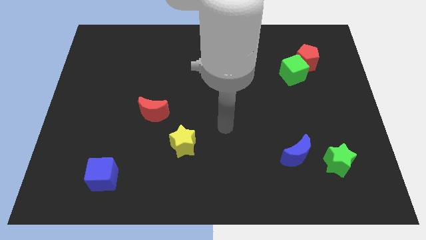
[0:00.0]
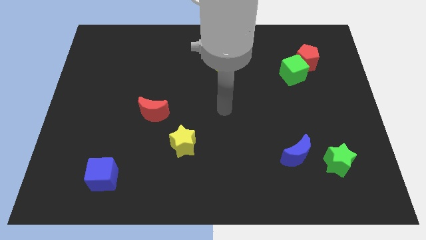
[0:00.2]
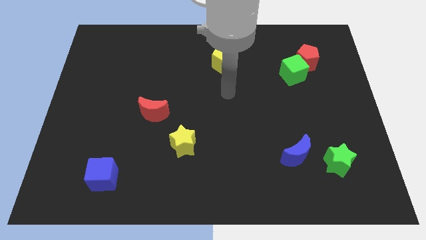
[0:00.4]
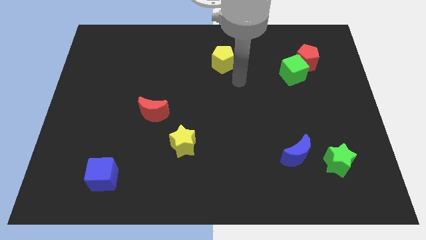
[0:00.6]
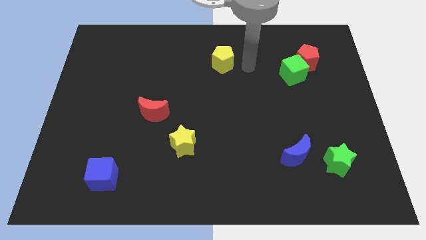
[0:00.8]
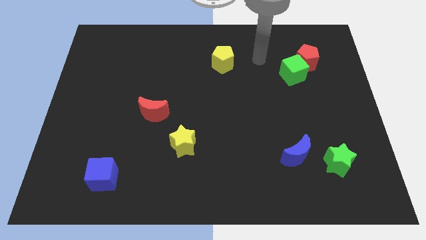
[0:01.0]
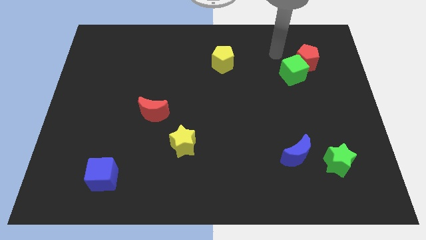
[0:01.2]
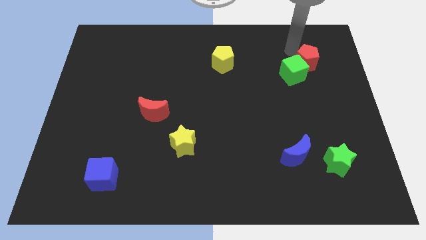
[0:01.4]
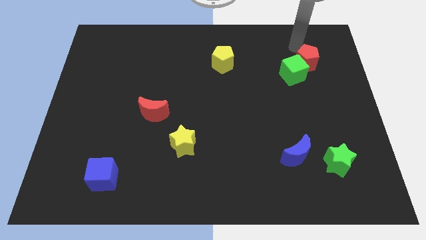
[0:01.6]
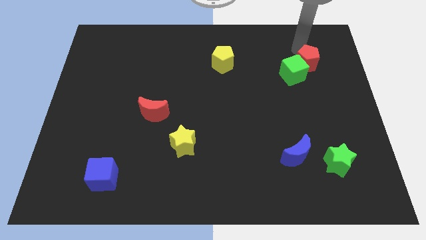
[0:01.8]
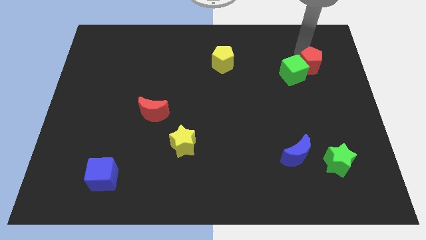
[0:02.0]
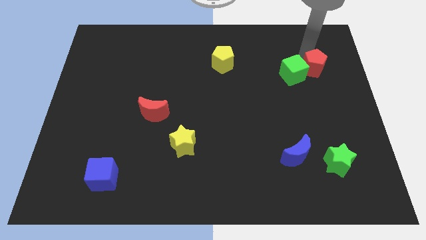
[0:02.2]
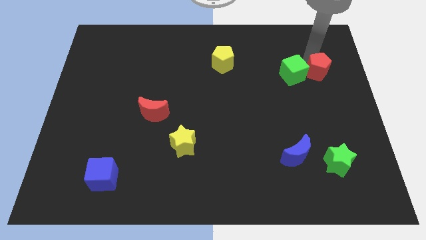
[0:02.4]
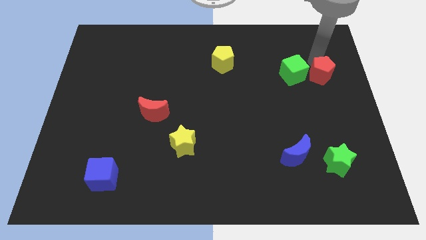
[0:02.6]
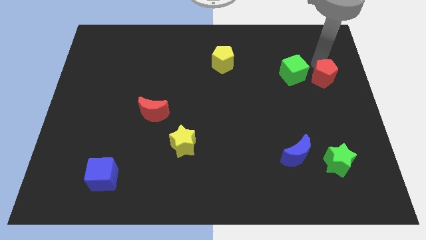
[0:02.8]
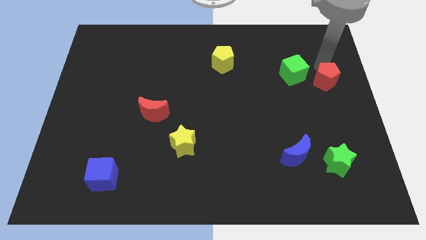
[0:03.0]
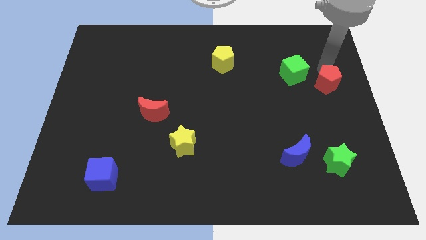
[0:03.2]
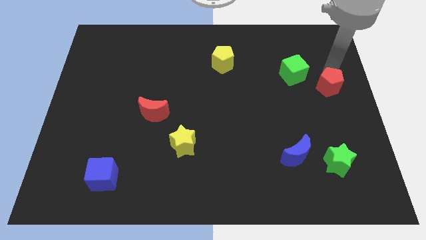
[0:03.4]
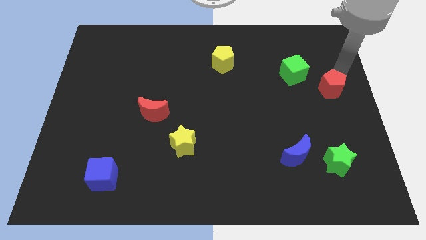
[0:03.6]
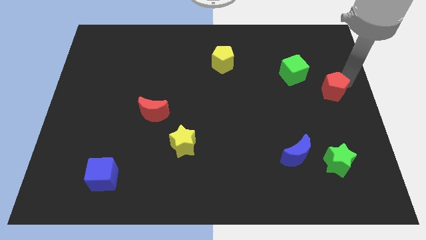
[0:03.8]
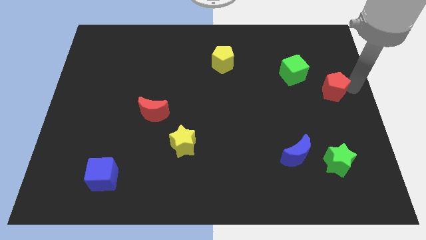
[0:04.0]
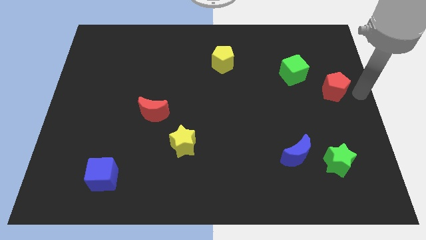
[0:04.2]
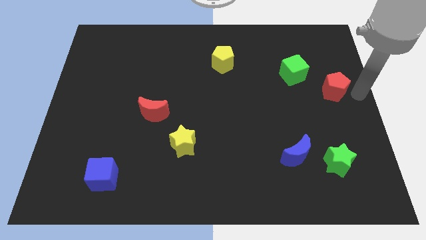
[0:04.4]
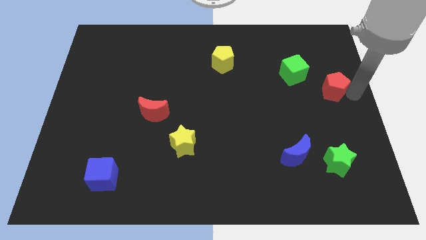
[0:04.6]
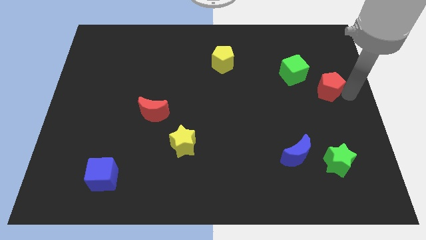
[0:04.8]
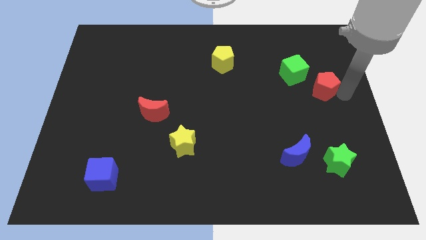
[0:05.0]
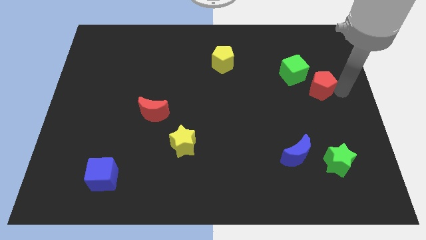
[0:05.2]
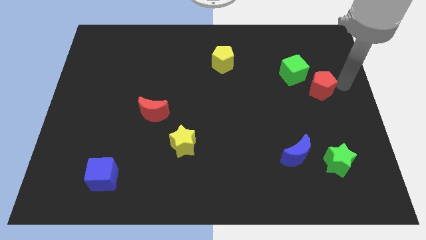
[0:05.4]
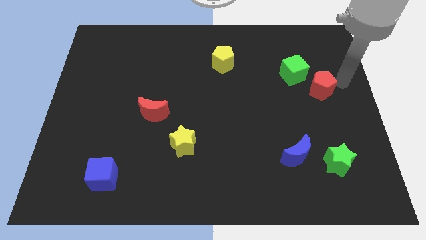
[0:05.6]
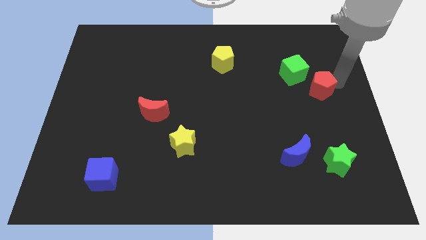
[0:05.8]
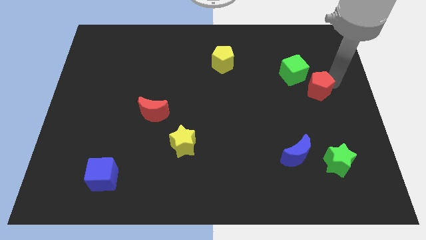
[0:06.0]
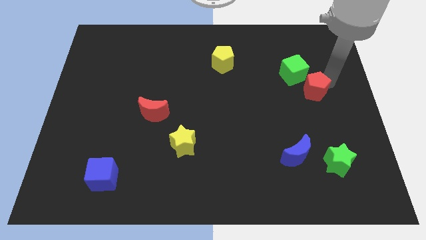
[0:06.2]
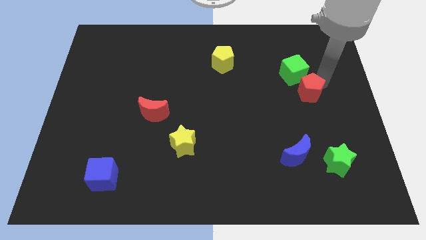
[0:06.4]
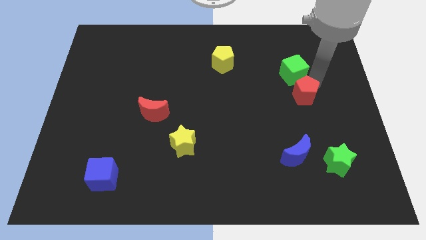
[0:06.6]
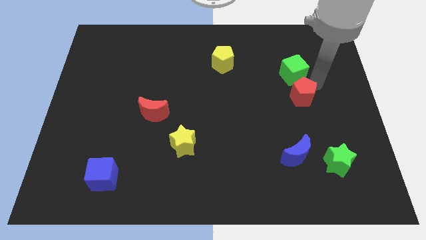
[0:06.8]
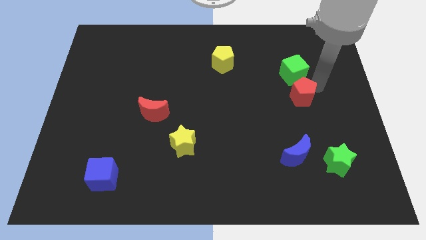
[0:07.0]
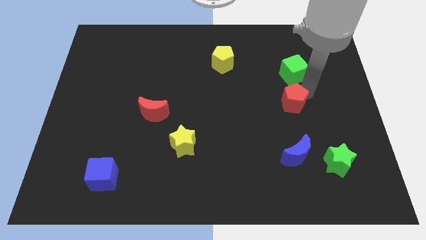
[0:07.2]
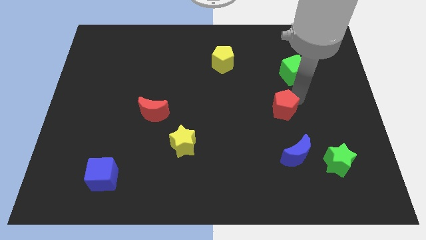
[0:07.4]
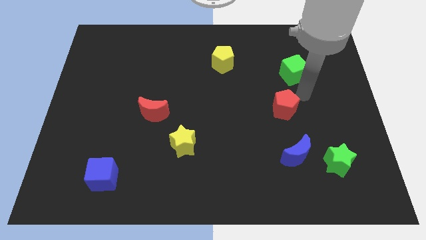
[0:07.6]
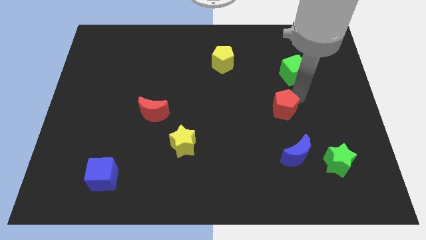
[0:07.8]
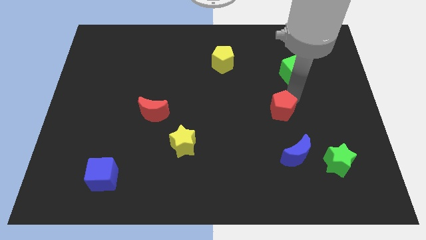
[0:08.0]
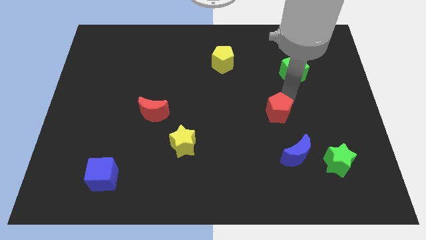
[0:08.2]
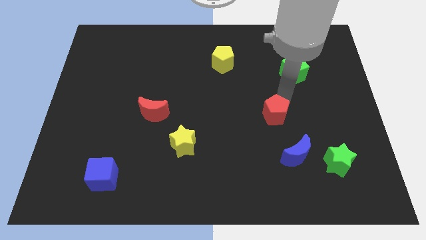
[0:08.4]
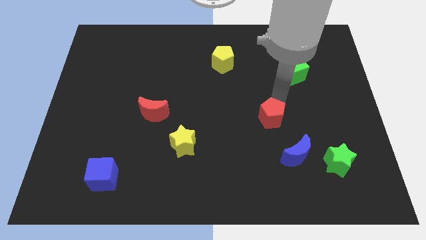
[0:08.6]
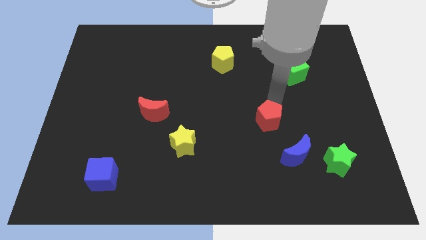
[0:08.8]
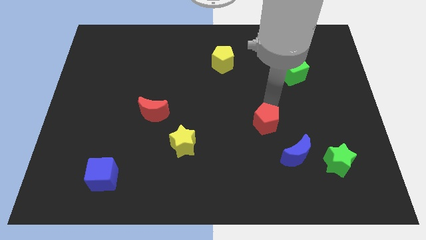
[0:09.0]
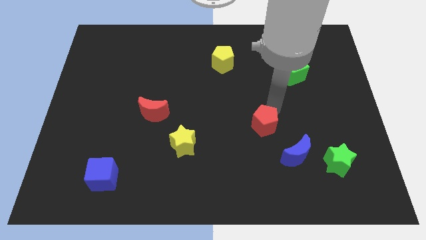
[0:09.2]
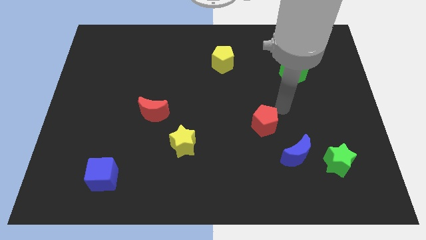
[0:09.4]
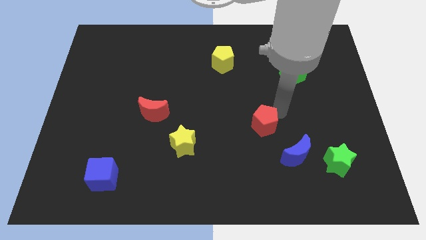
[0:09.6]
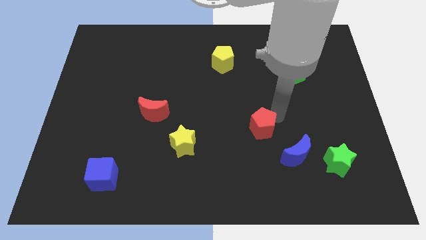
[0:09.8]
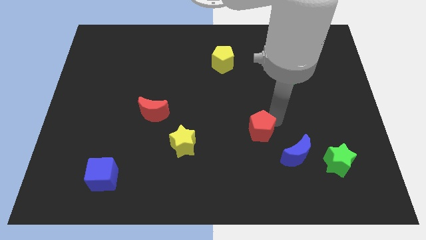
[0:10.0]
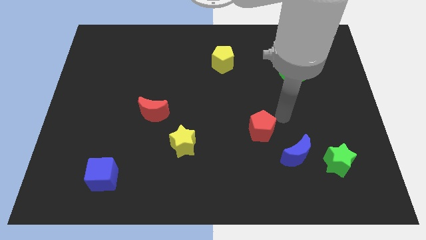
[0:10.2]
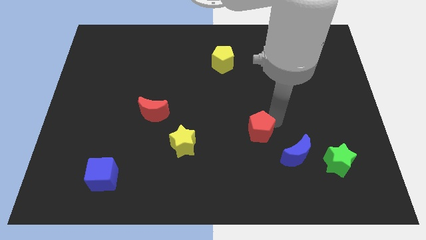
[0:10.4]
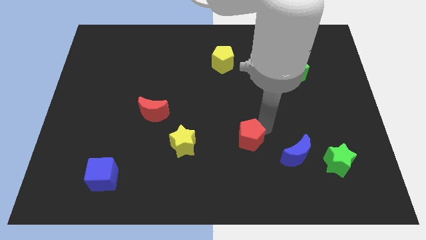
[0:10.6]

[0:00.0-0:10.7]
slide the red pentagon to the right of the yellow star

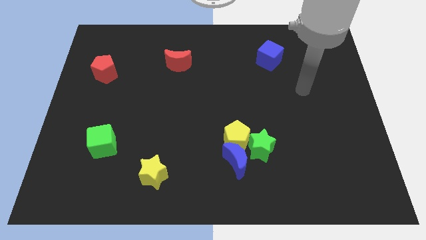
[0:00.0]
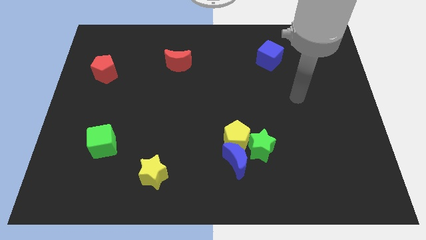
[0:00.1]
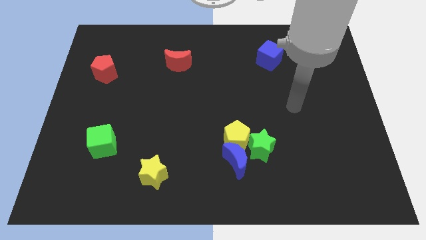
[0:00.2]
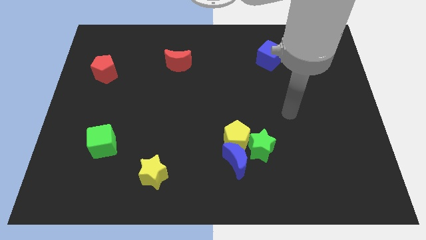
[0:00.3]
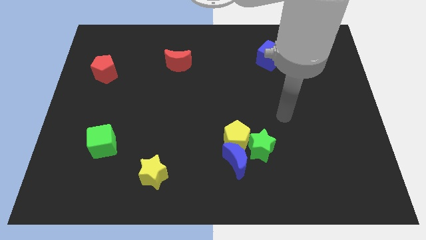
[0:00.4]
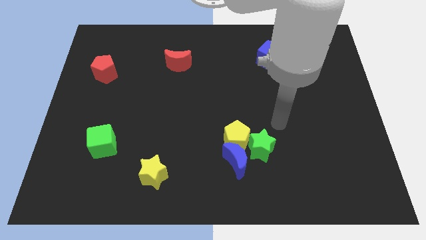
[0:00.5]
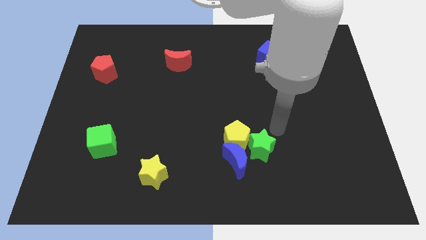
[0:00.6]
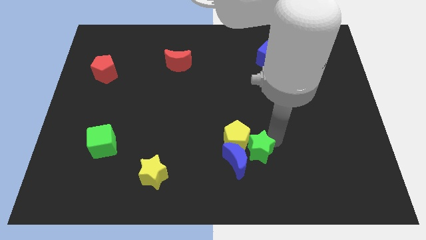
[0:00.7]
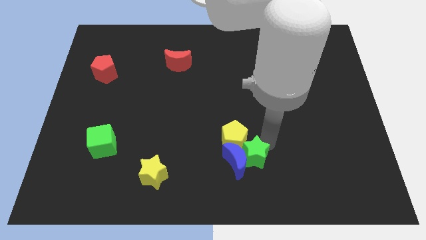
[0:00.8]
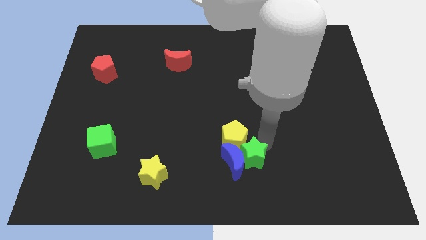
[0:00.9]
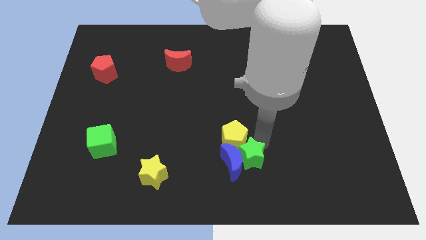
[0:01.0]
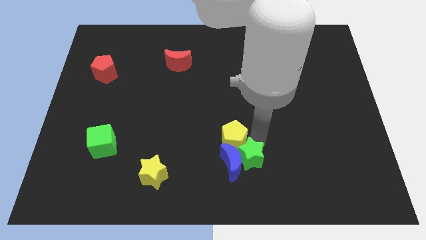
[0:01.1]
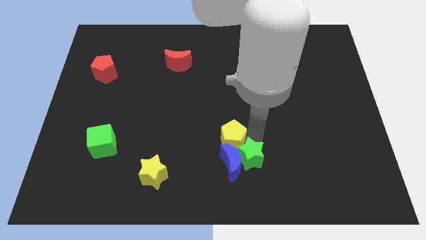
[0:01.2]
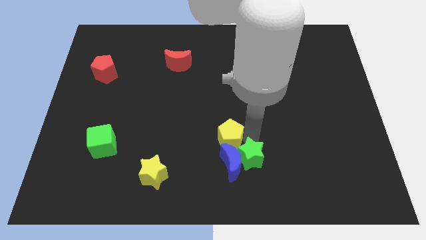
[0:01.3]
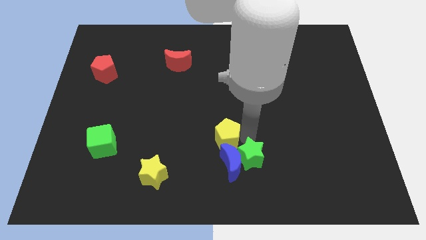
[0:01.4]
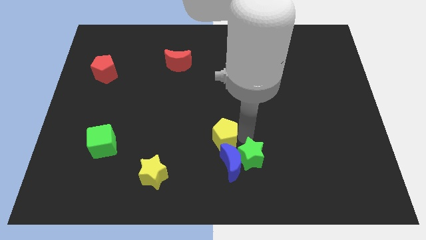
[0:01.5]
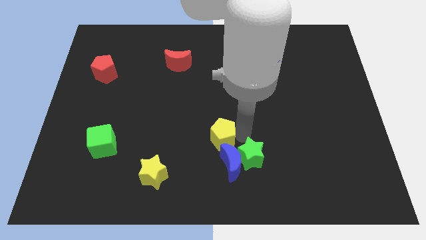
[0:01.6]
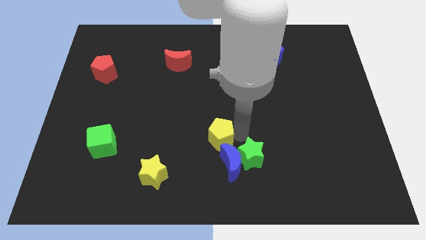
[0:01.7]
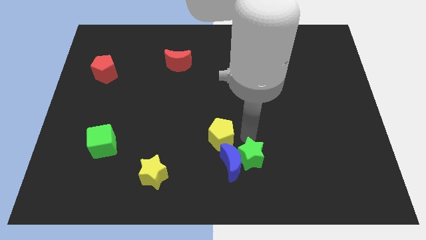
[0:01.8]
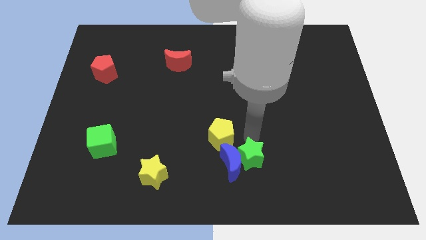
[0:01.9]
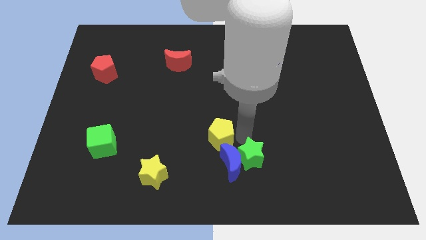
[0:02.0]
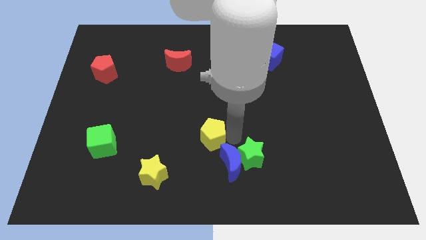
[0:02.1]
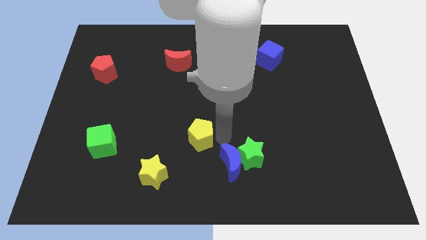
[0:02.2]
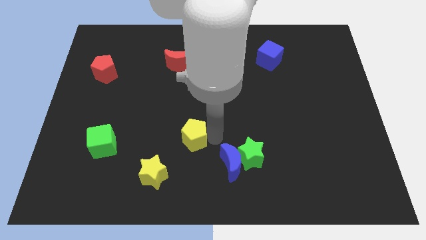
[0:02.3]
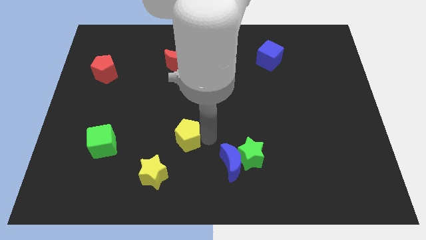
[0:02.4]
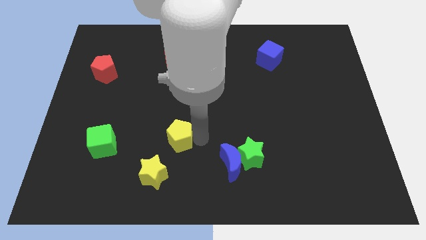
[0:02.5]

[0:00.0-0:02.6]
slide the yellow pentagon above the yellow star
